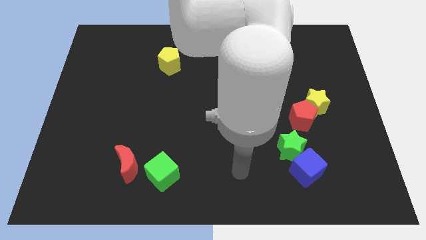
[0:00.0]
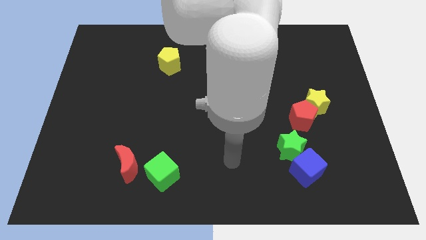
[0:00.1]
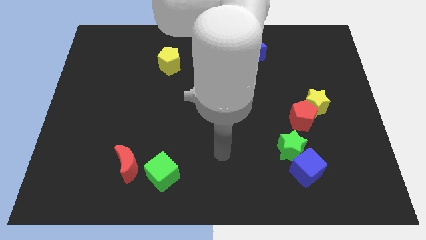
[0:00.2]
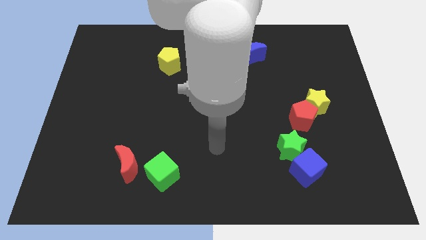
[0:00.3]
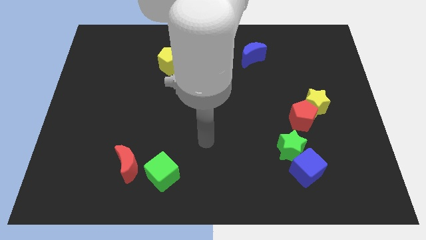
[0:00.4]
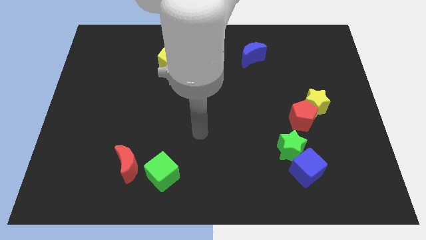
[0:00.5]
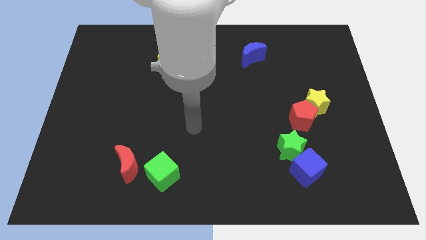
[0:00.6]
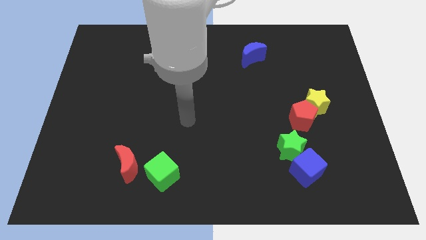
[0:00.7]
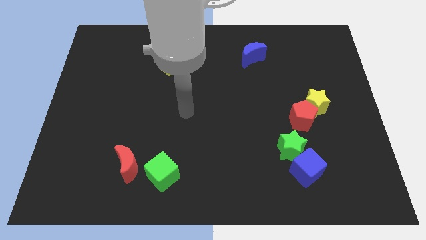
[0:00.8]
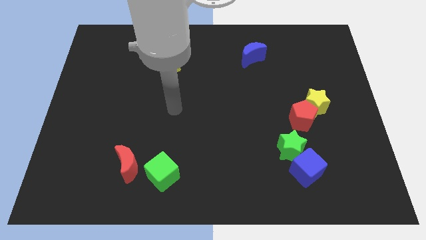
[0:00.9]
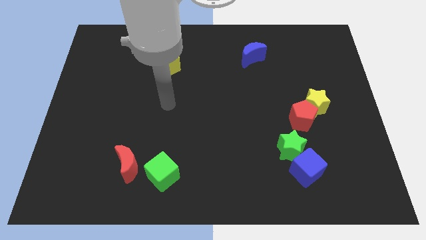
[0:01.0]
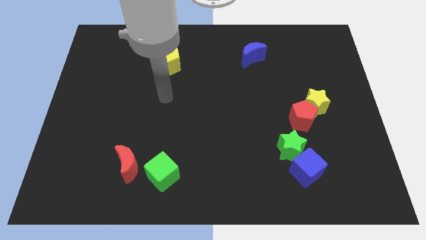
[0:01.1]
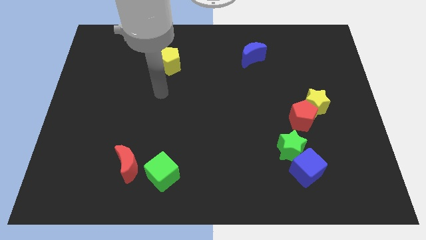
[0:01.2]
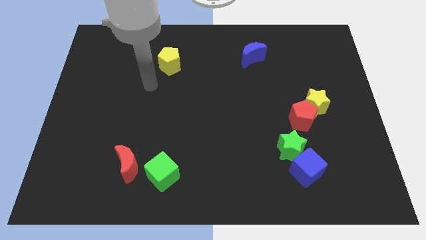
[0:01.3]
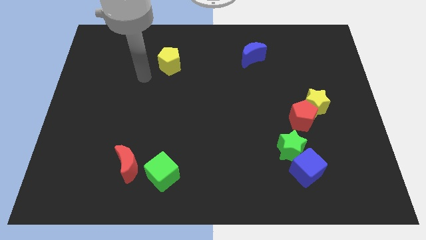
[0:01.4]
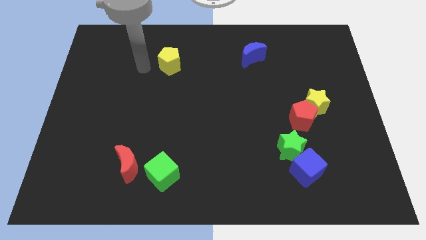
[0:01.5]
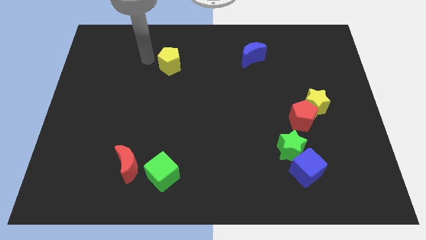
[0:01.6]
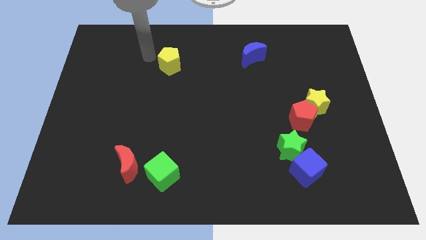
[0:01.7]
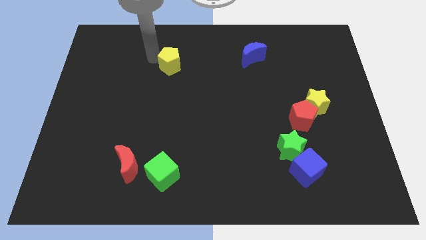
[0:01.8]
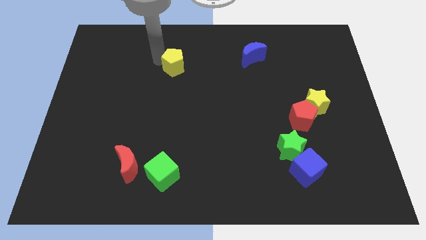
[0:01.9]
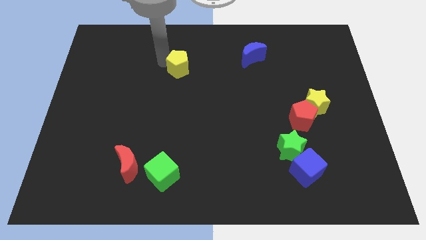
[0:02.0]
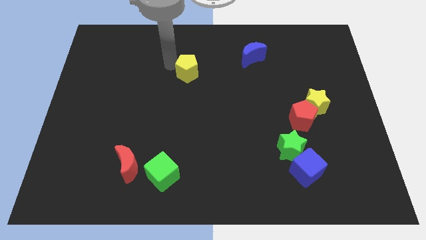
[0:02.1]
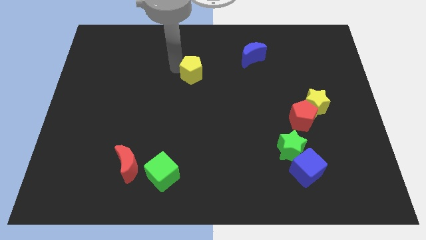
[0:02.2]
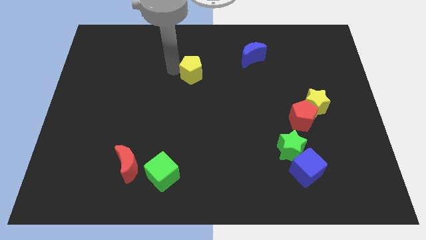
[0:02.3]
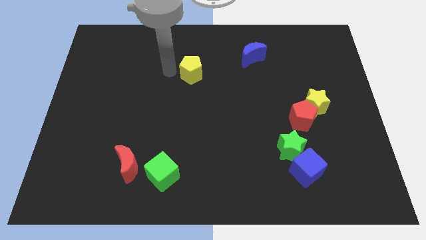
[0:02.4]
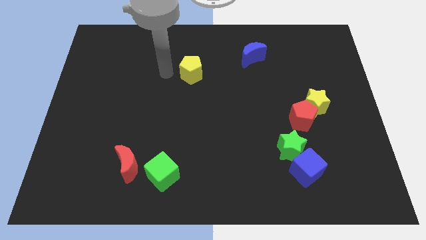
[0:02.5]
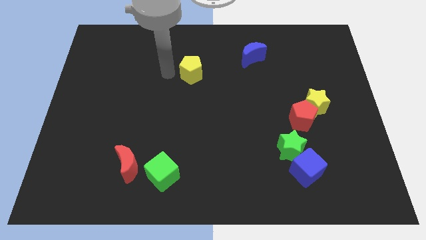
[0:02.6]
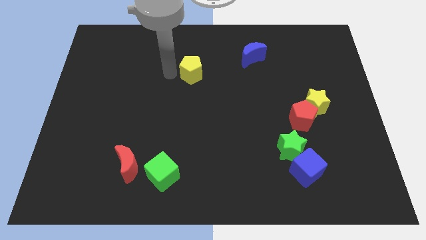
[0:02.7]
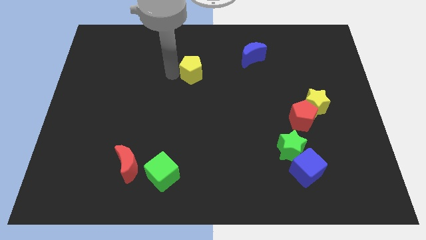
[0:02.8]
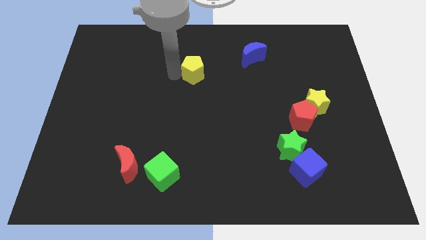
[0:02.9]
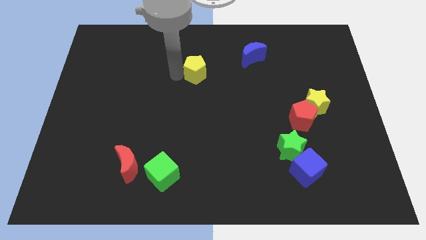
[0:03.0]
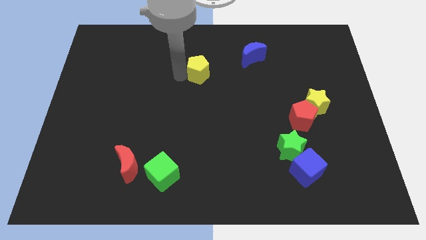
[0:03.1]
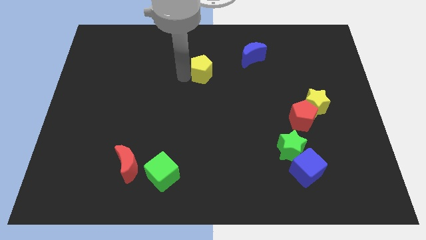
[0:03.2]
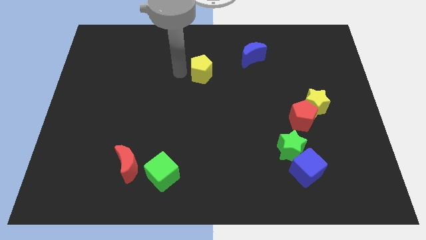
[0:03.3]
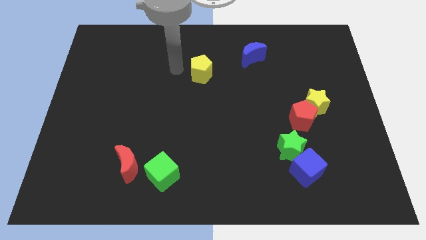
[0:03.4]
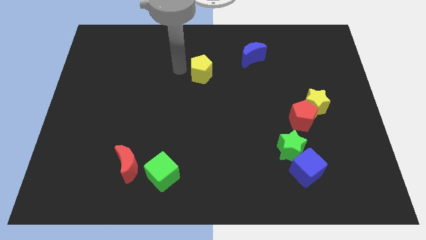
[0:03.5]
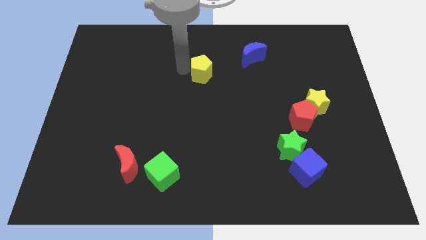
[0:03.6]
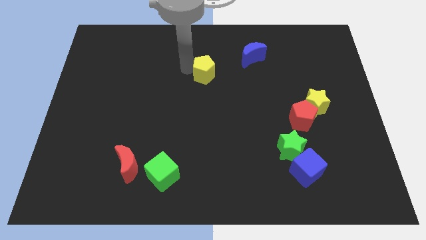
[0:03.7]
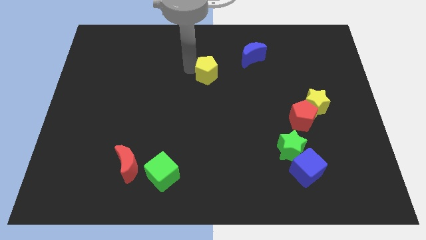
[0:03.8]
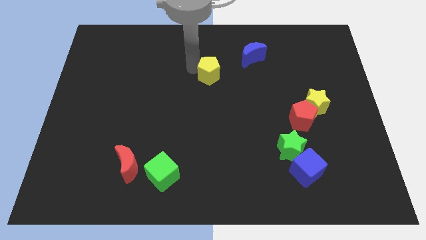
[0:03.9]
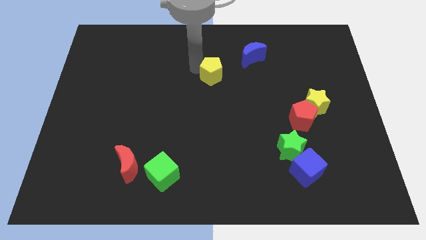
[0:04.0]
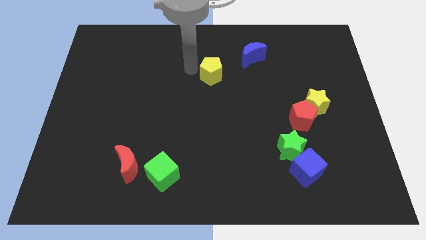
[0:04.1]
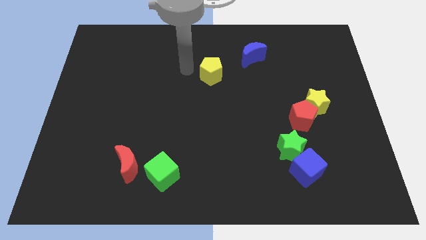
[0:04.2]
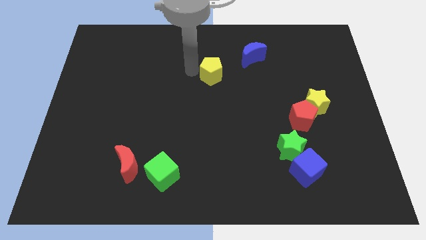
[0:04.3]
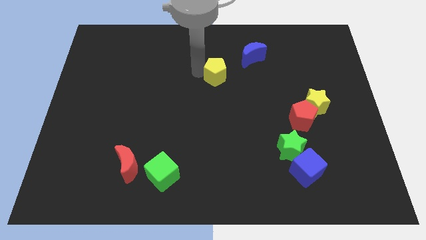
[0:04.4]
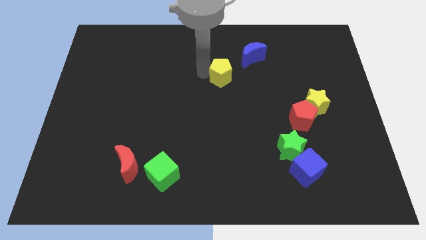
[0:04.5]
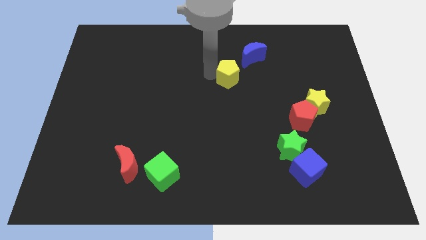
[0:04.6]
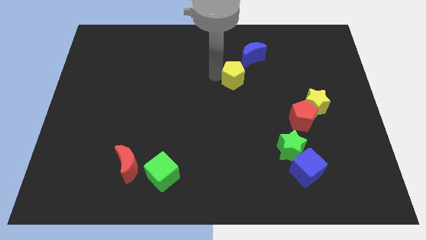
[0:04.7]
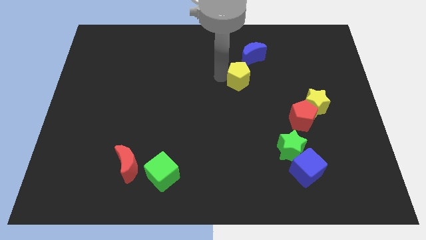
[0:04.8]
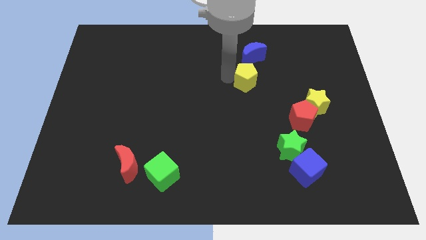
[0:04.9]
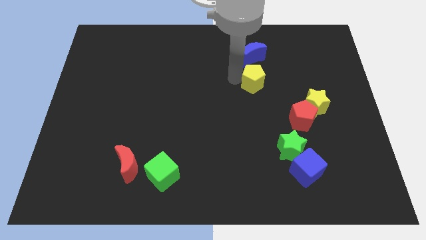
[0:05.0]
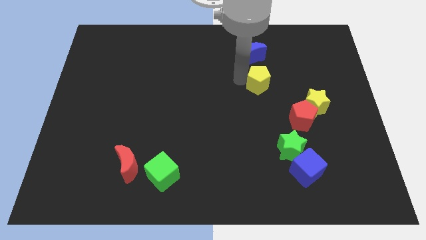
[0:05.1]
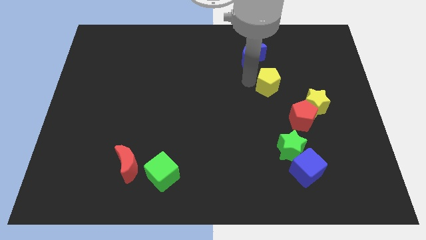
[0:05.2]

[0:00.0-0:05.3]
slide the yellow pentagon diagonally up and to the left of the yellow star

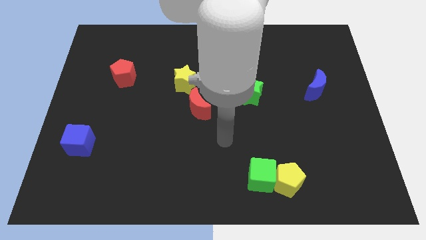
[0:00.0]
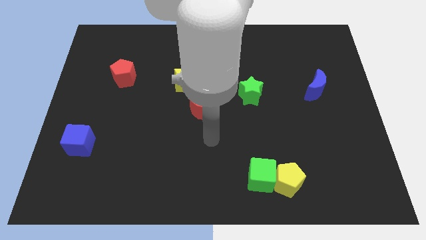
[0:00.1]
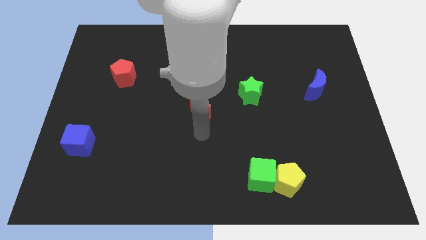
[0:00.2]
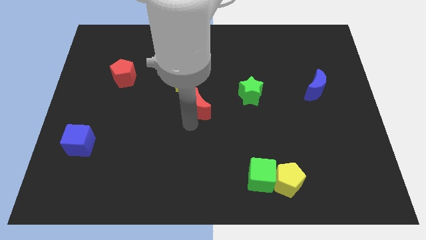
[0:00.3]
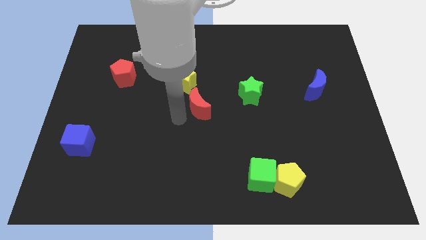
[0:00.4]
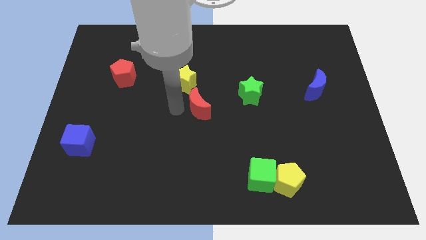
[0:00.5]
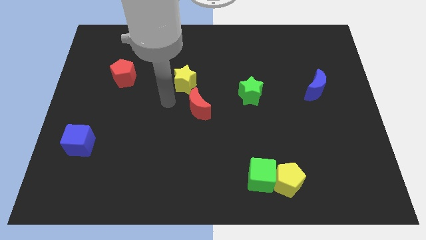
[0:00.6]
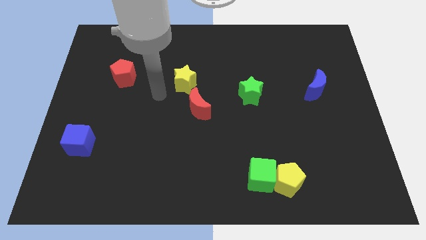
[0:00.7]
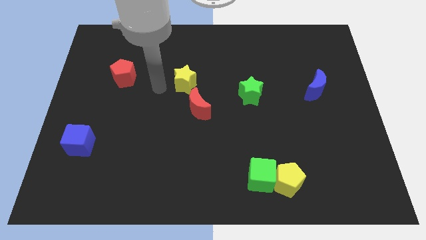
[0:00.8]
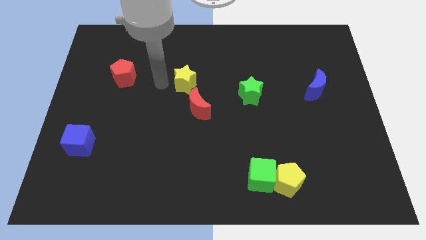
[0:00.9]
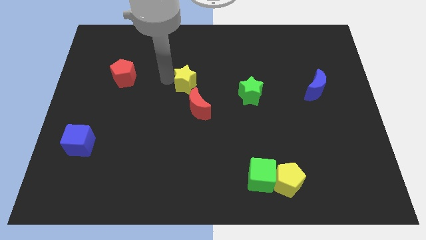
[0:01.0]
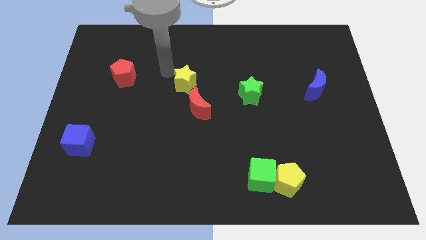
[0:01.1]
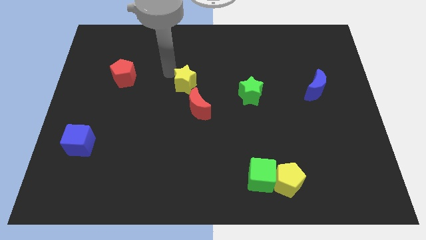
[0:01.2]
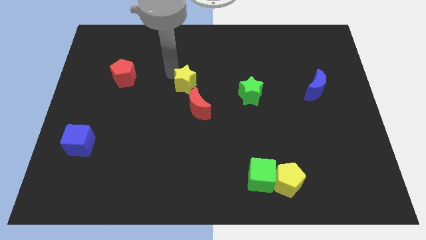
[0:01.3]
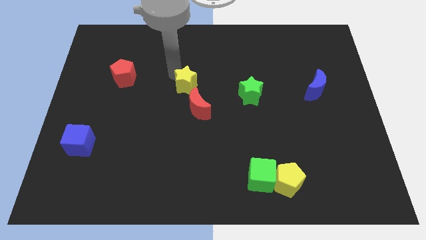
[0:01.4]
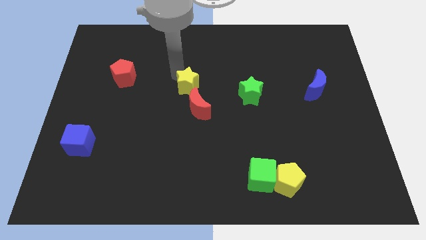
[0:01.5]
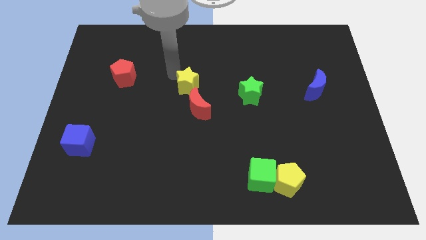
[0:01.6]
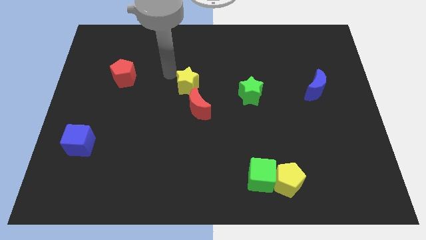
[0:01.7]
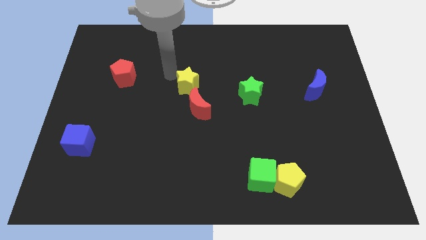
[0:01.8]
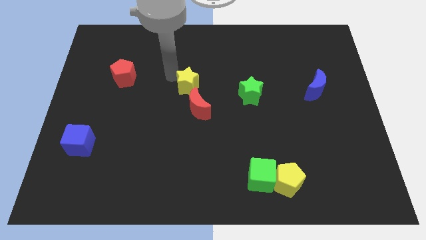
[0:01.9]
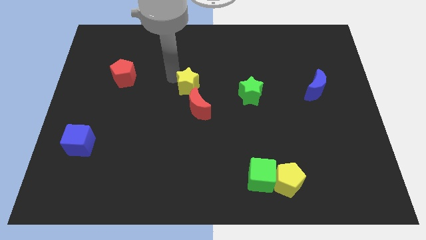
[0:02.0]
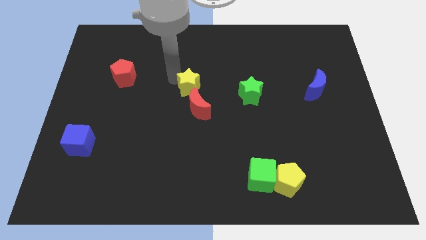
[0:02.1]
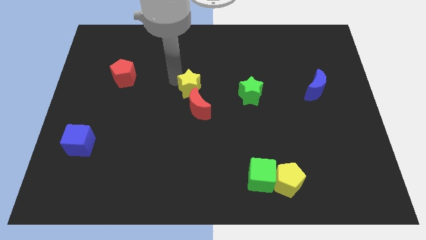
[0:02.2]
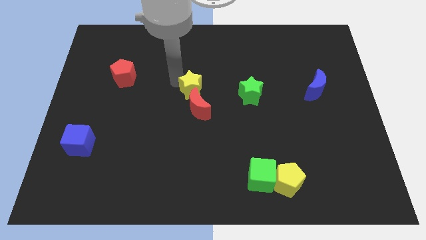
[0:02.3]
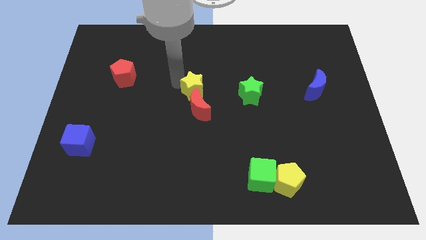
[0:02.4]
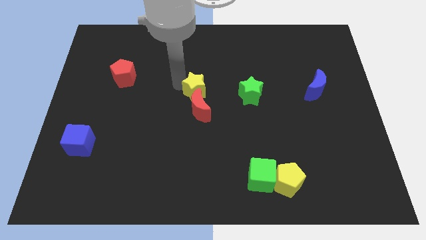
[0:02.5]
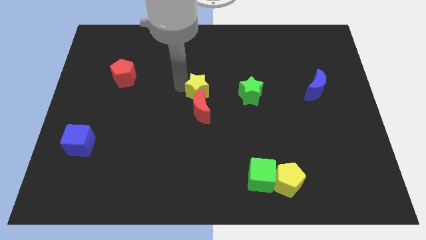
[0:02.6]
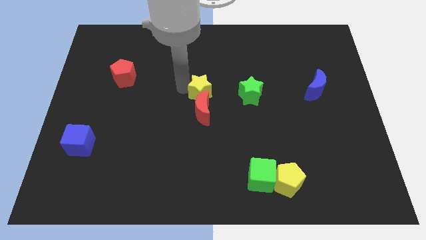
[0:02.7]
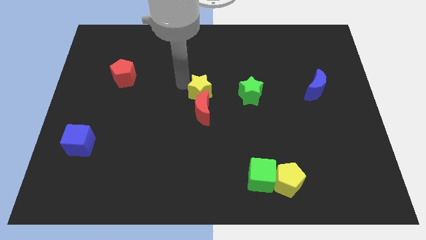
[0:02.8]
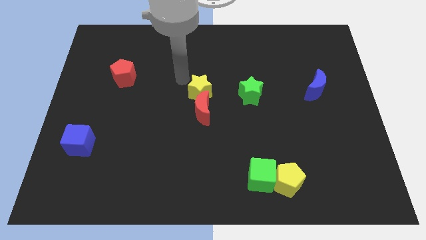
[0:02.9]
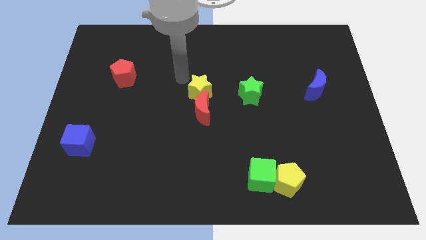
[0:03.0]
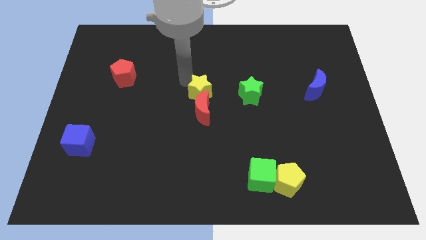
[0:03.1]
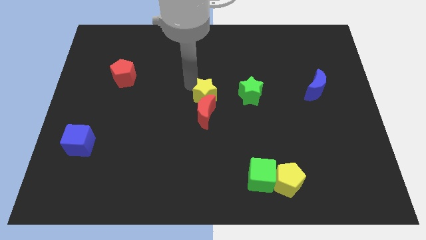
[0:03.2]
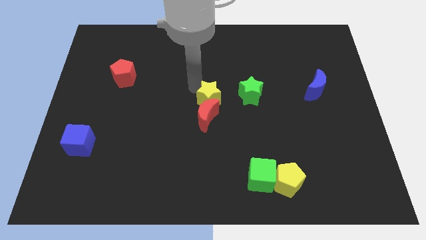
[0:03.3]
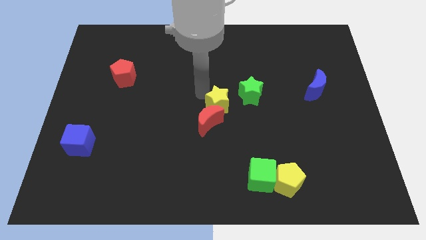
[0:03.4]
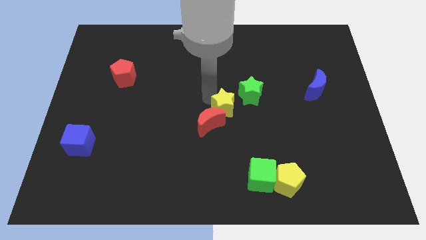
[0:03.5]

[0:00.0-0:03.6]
slide the yellow star to the right of the red moon
